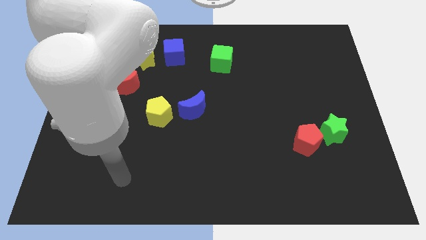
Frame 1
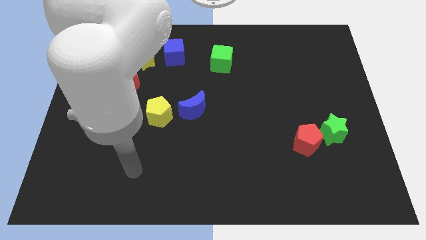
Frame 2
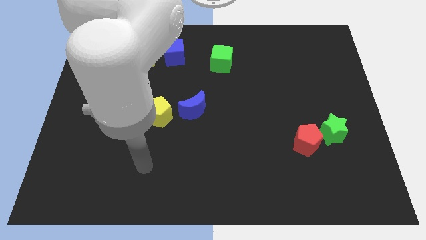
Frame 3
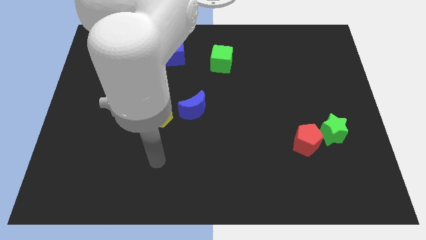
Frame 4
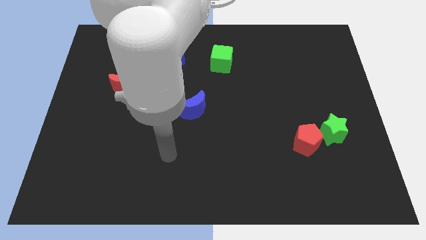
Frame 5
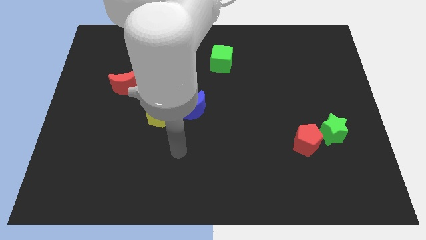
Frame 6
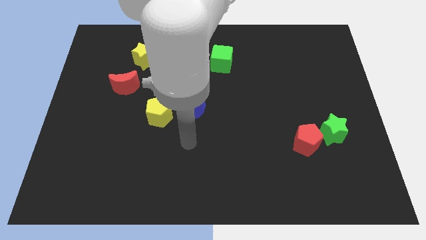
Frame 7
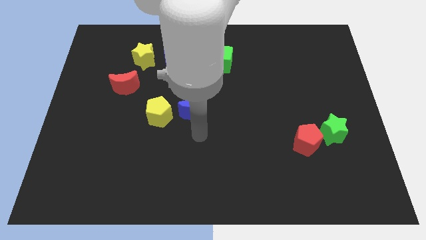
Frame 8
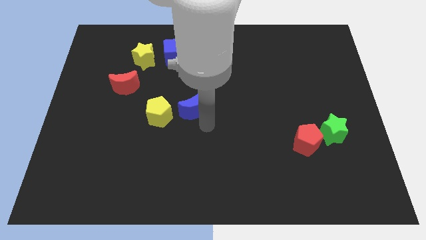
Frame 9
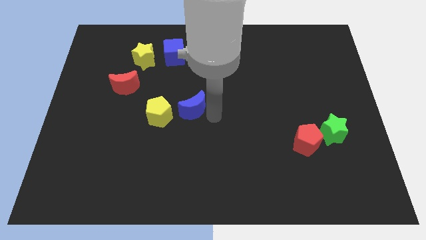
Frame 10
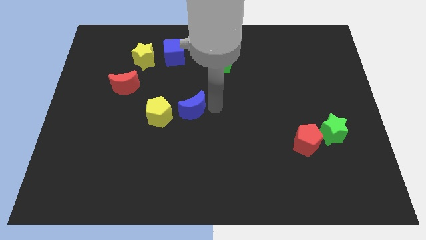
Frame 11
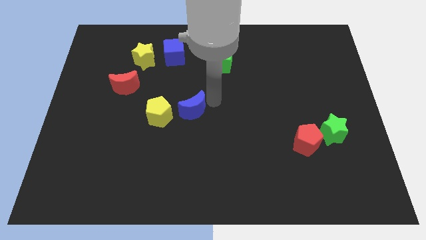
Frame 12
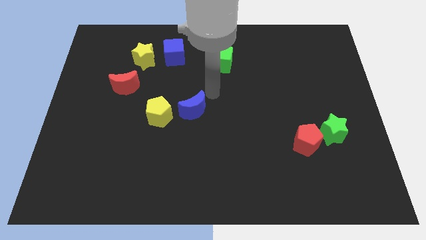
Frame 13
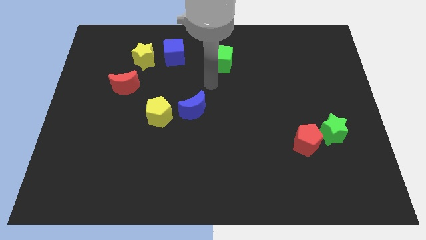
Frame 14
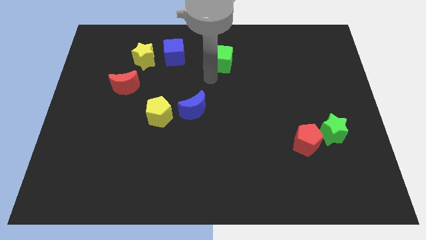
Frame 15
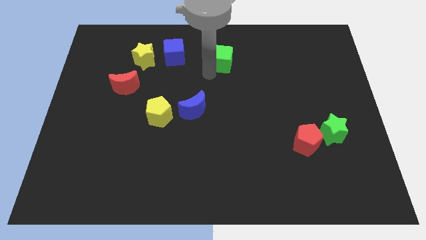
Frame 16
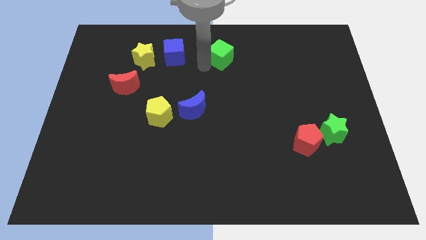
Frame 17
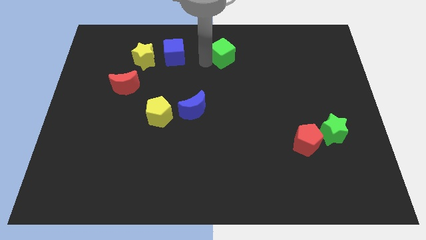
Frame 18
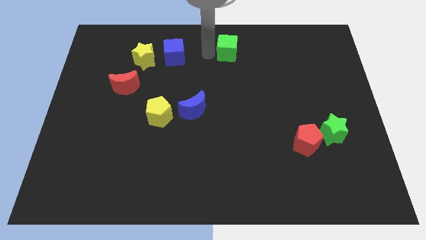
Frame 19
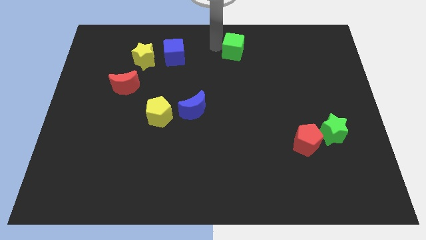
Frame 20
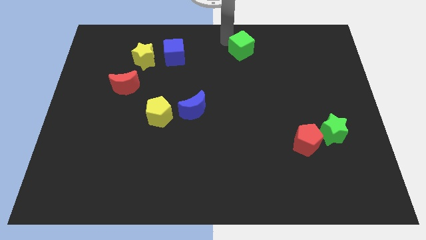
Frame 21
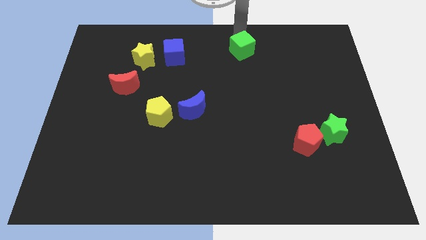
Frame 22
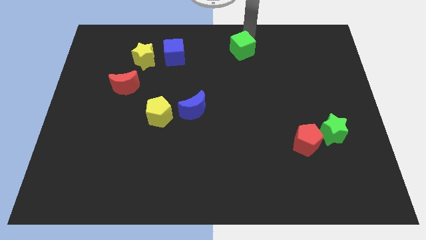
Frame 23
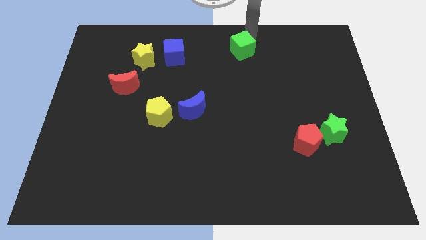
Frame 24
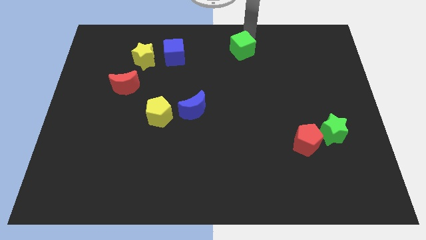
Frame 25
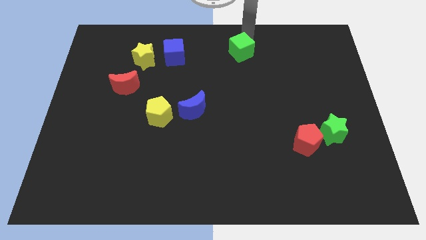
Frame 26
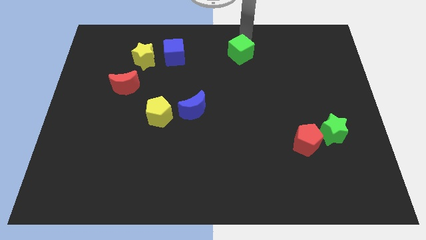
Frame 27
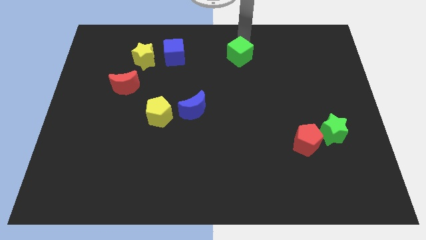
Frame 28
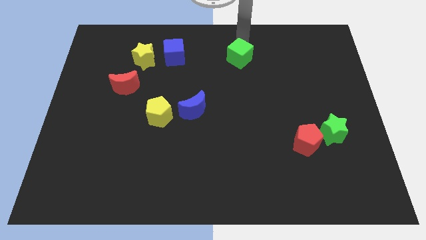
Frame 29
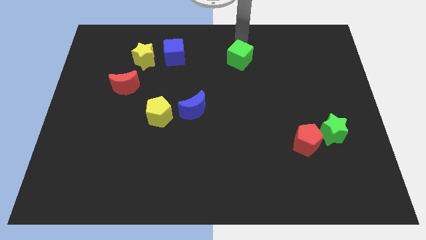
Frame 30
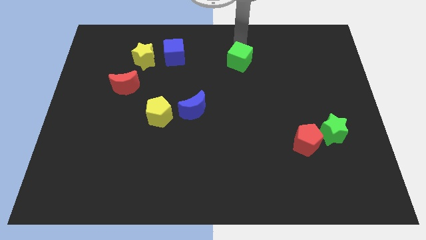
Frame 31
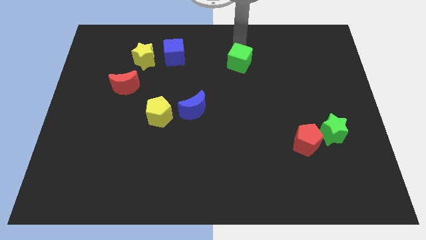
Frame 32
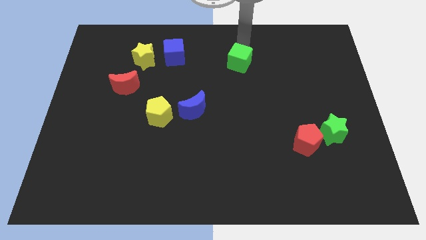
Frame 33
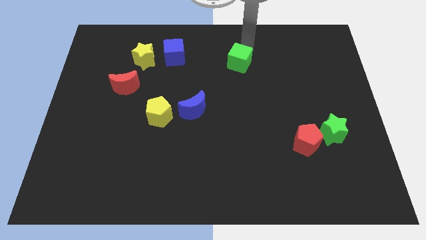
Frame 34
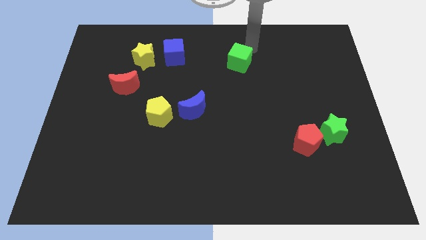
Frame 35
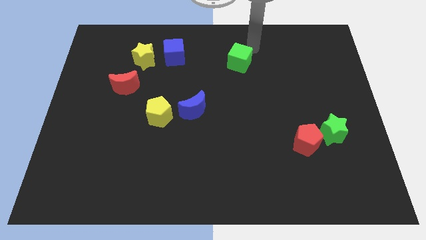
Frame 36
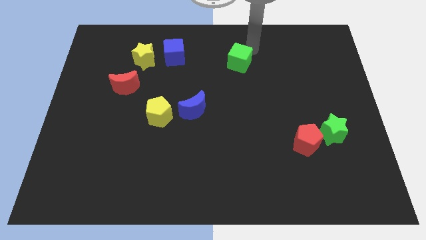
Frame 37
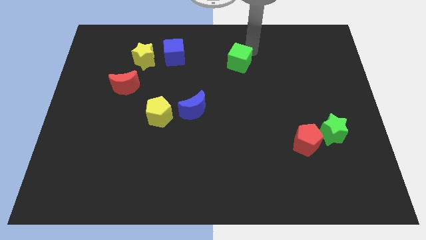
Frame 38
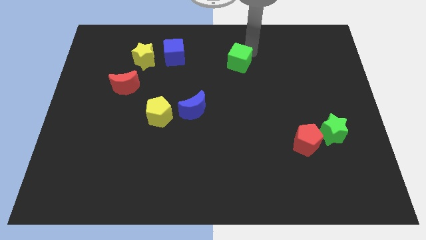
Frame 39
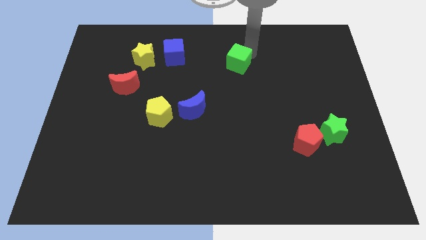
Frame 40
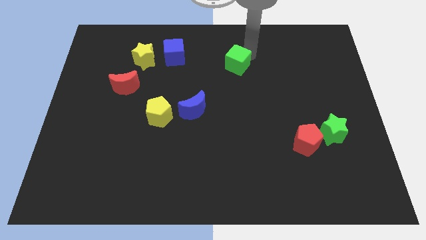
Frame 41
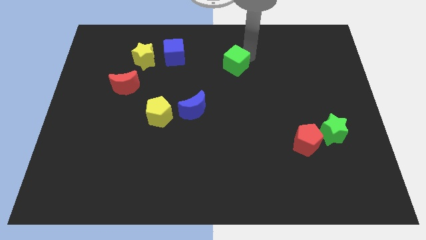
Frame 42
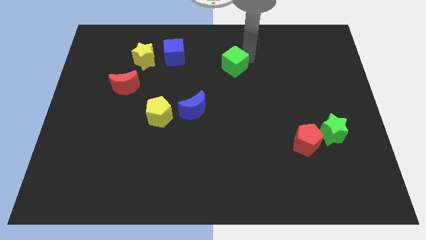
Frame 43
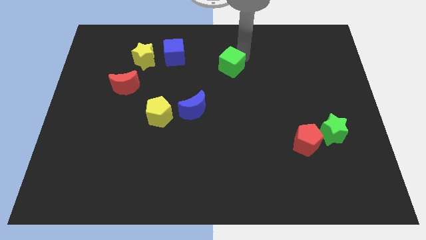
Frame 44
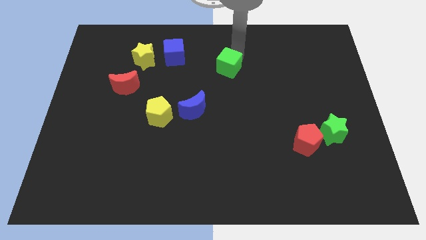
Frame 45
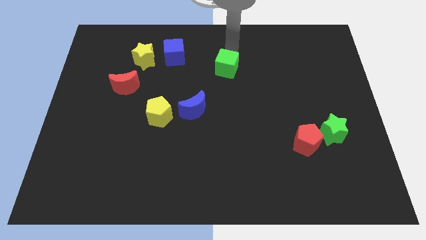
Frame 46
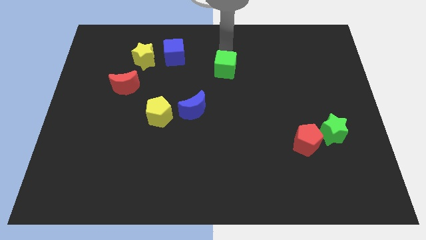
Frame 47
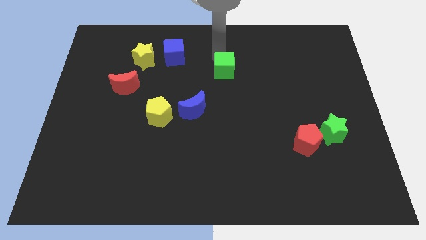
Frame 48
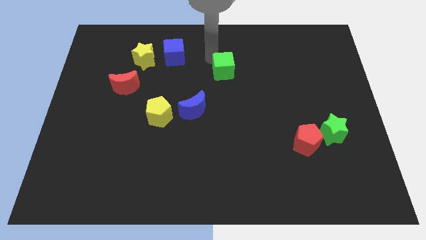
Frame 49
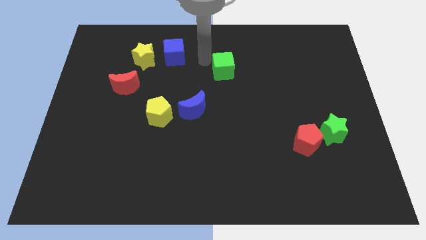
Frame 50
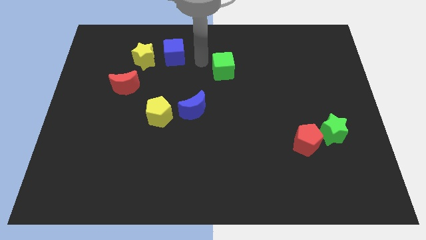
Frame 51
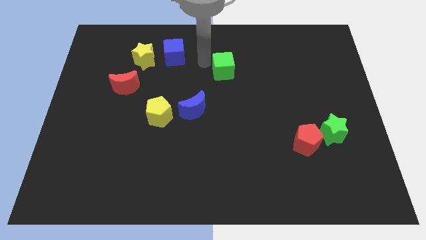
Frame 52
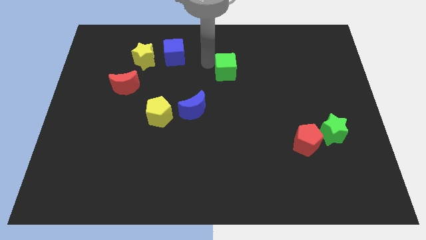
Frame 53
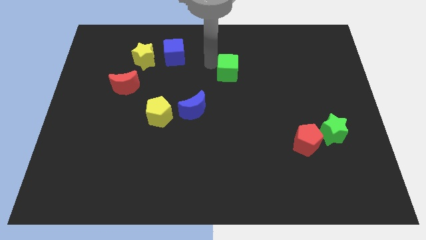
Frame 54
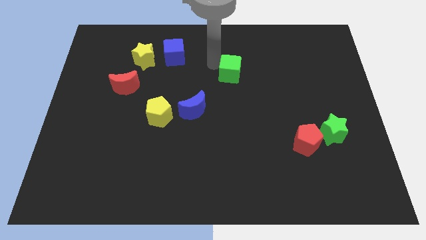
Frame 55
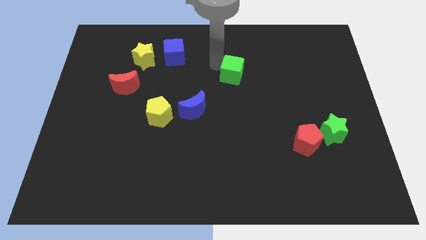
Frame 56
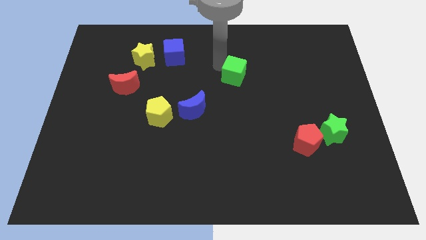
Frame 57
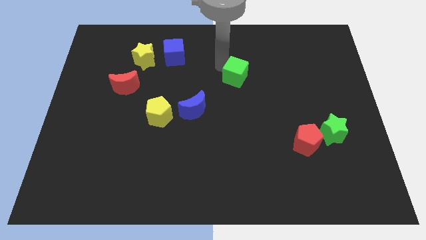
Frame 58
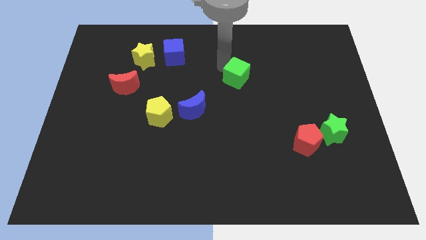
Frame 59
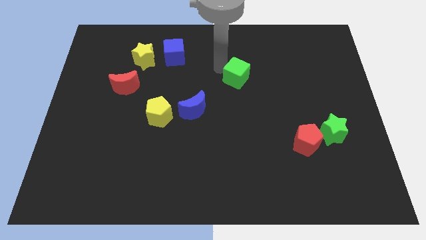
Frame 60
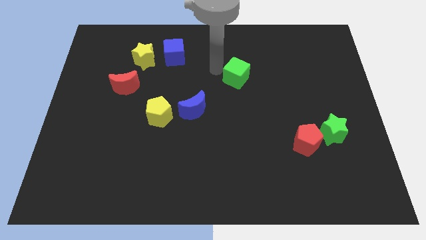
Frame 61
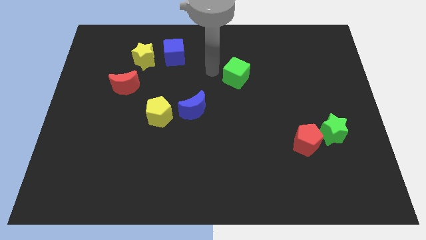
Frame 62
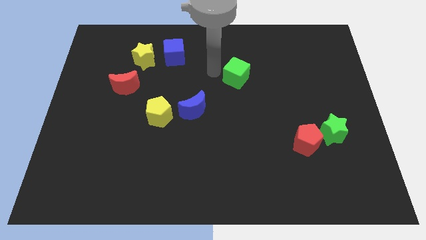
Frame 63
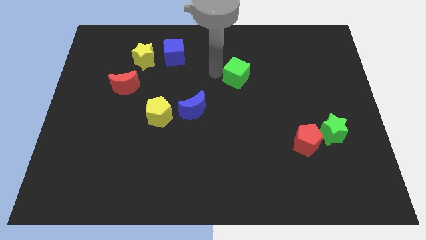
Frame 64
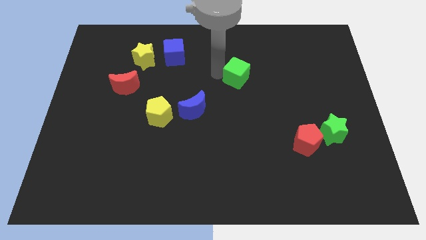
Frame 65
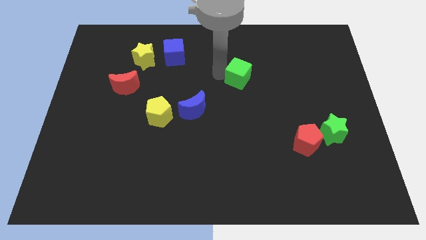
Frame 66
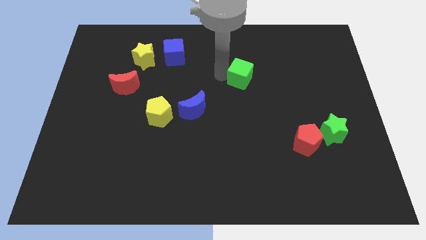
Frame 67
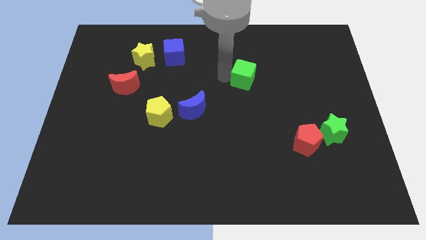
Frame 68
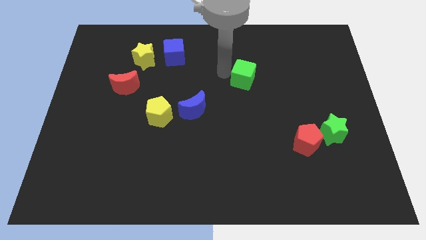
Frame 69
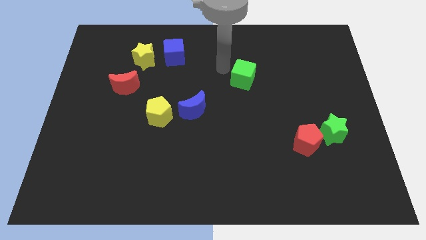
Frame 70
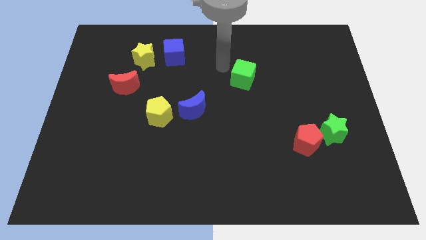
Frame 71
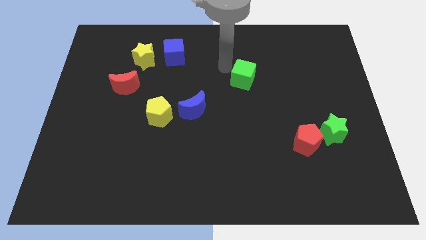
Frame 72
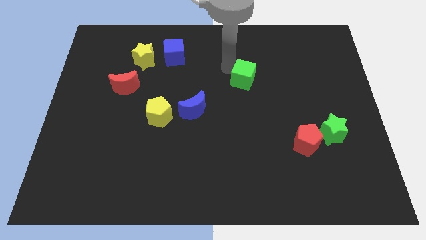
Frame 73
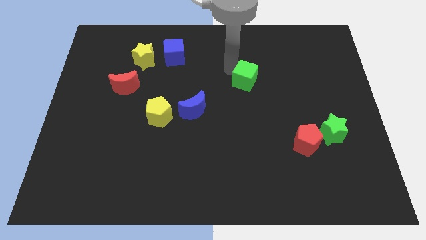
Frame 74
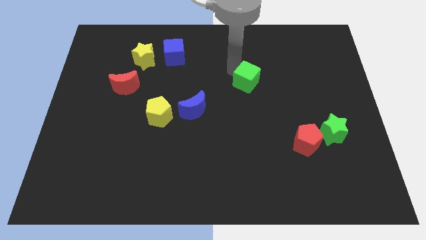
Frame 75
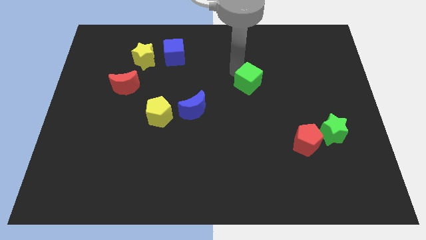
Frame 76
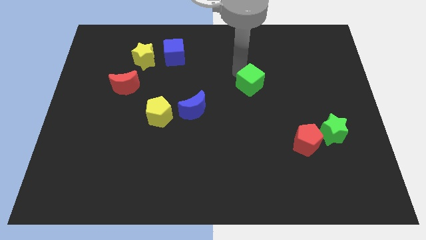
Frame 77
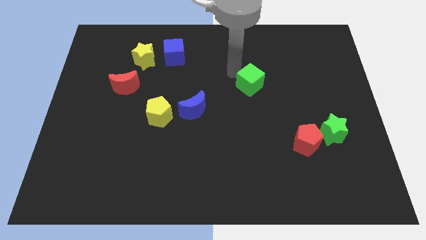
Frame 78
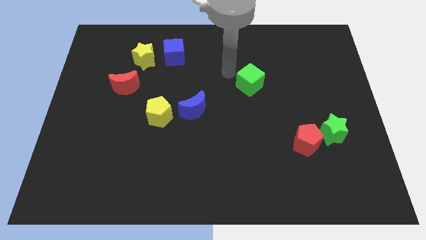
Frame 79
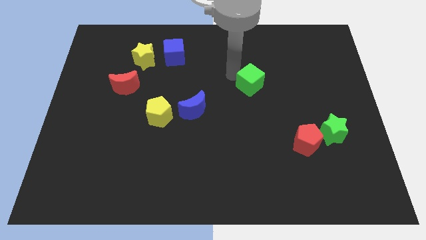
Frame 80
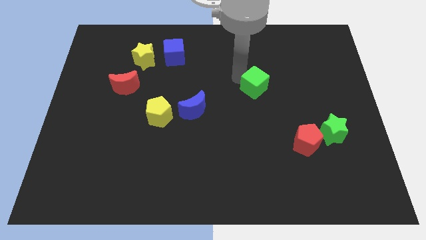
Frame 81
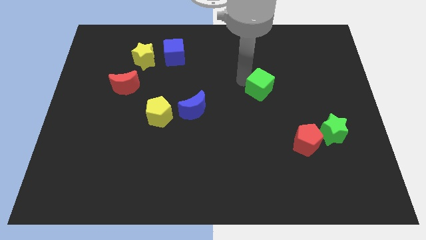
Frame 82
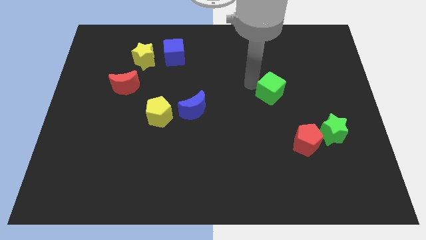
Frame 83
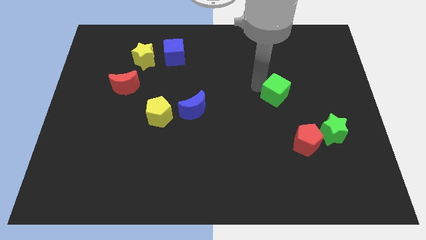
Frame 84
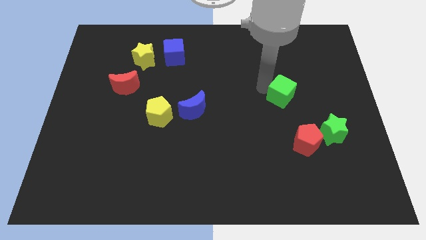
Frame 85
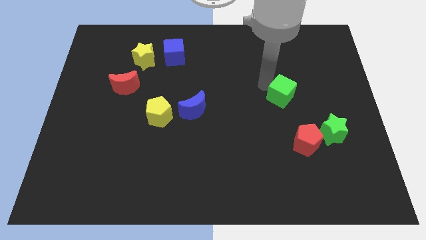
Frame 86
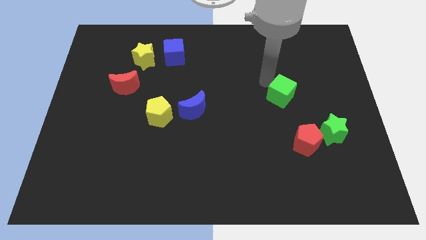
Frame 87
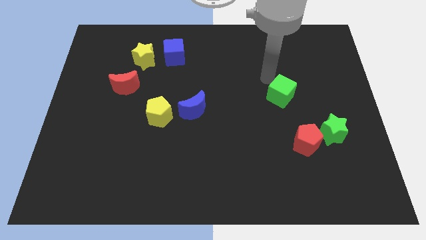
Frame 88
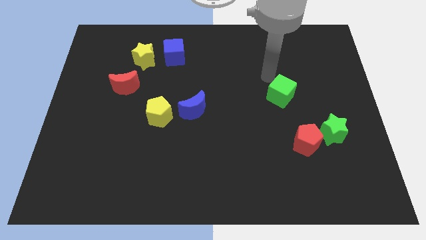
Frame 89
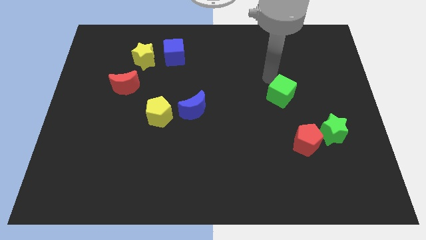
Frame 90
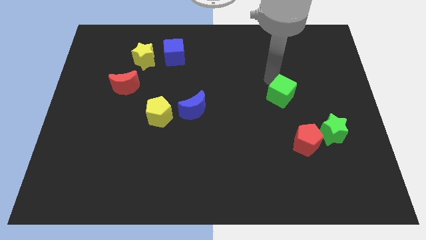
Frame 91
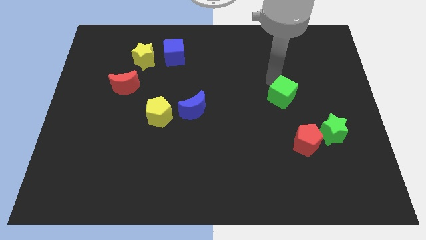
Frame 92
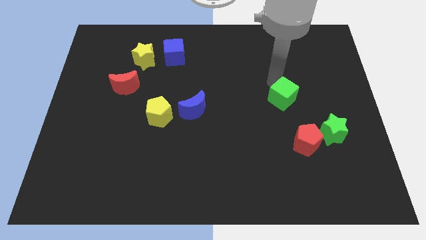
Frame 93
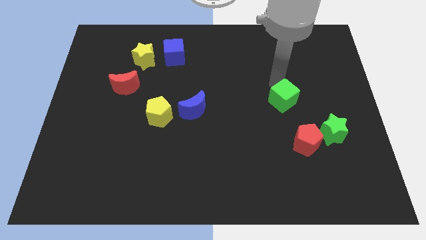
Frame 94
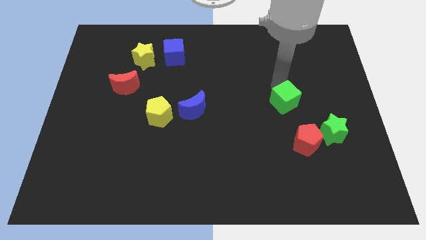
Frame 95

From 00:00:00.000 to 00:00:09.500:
slide the green cube to the top left side of the green star
